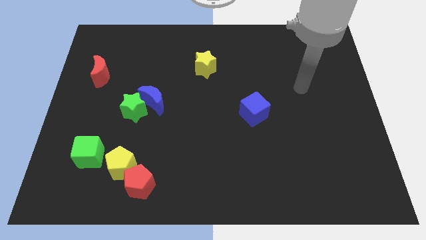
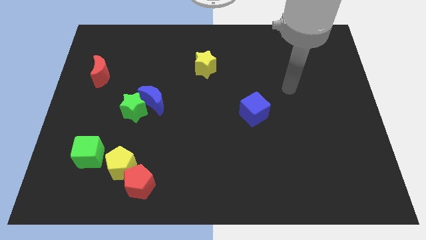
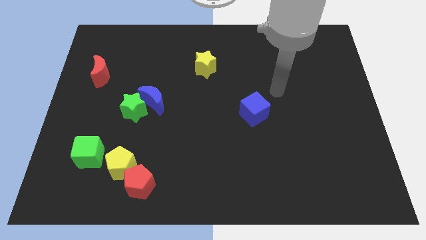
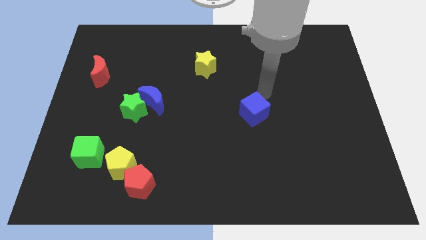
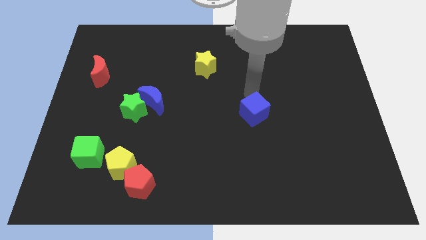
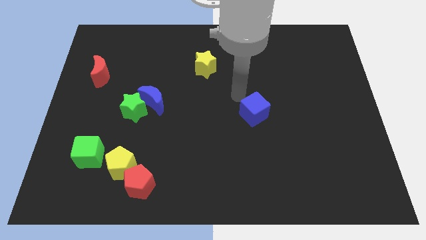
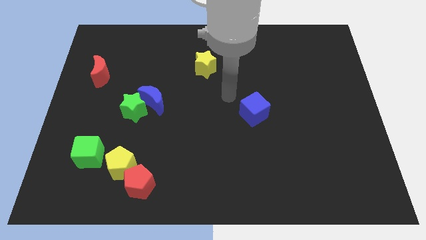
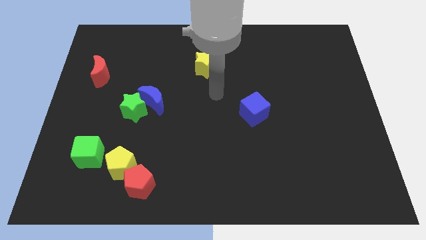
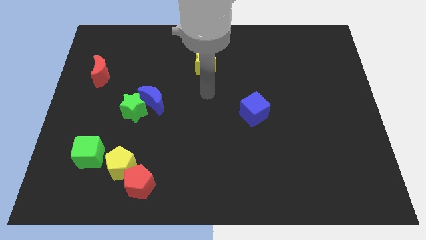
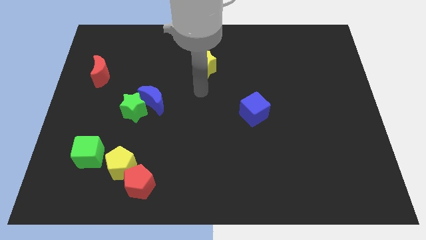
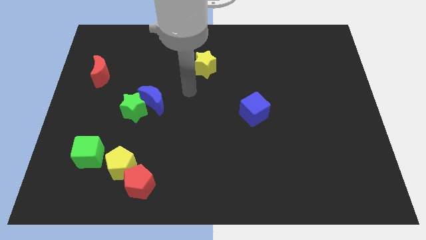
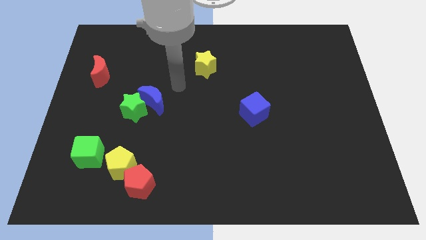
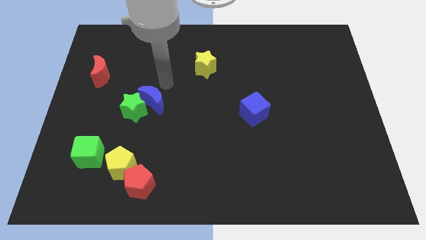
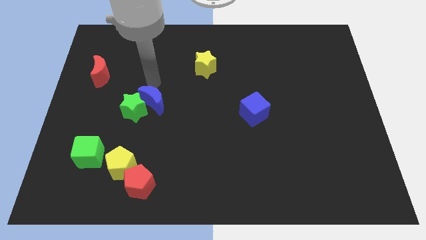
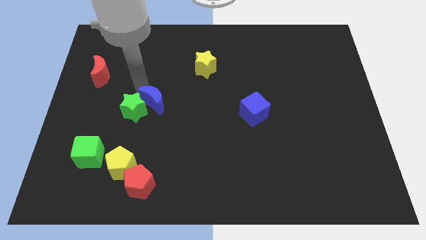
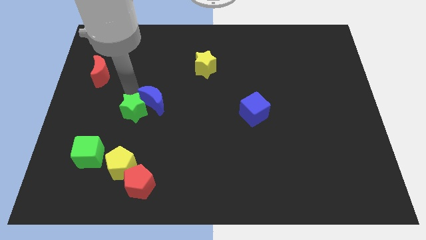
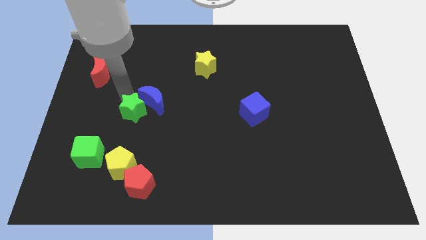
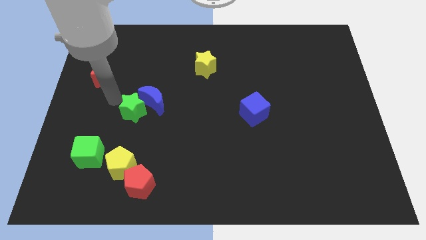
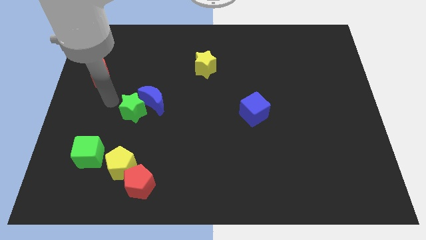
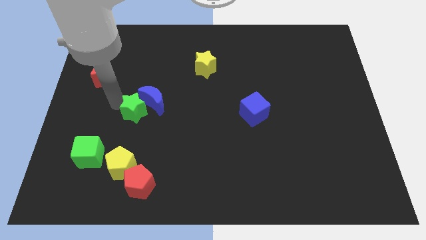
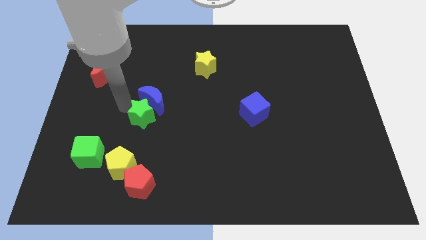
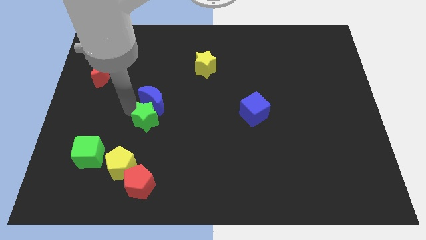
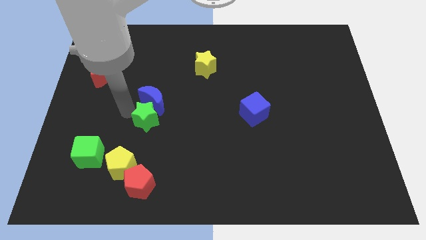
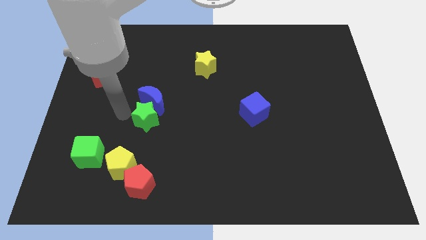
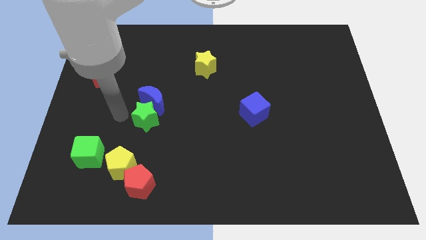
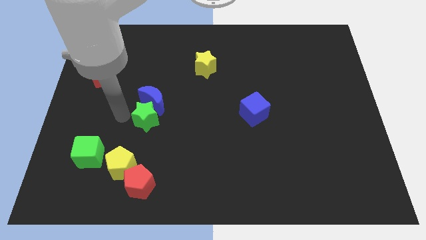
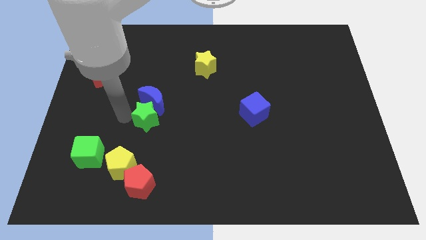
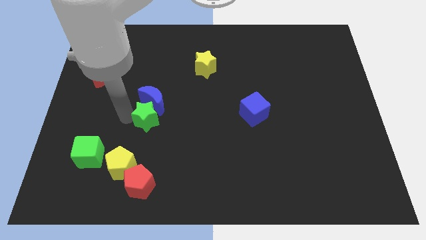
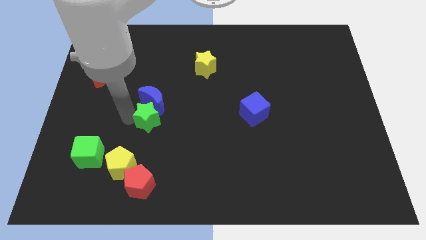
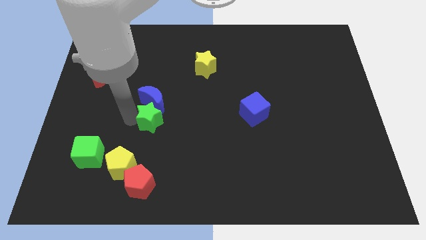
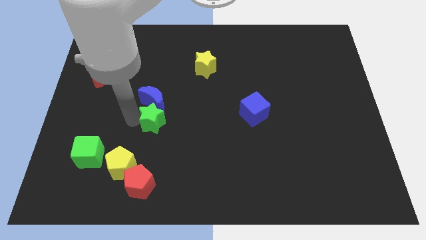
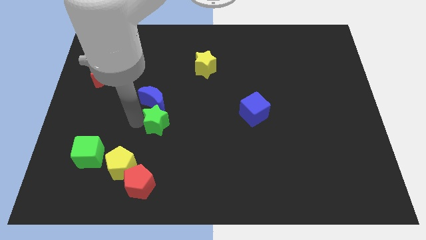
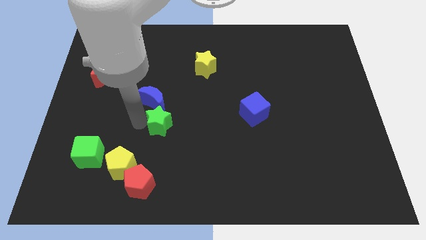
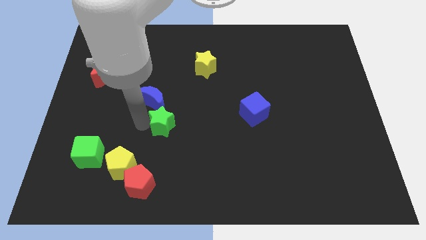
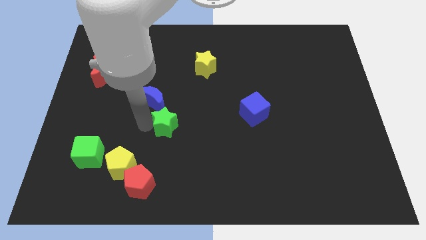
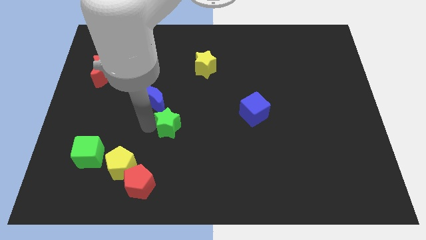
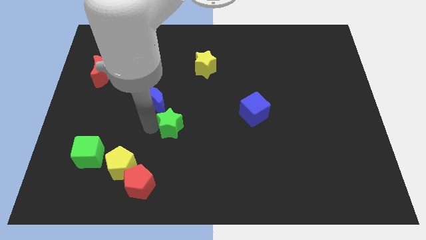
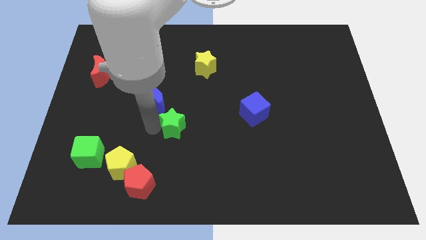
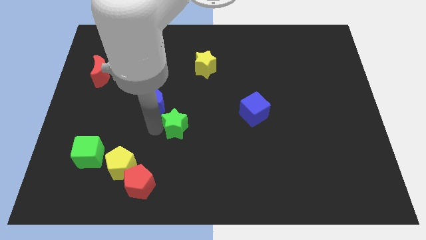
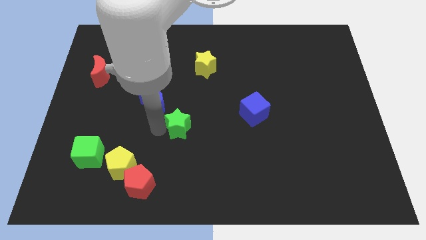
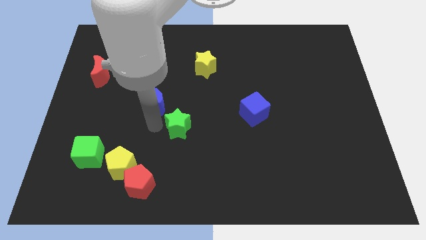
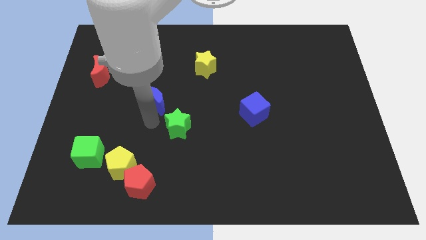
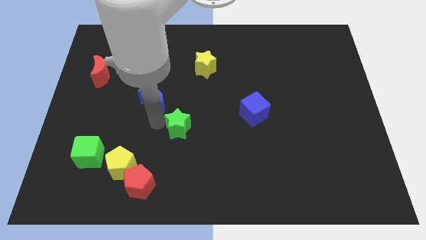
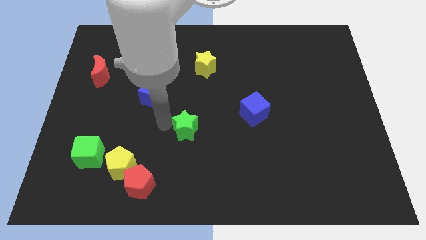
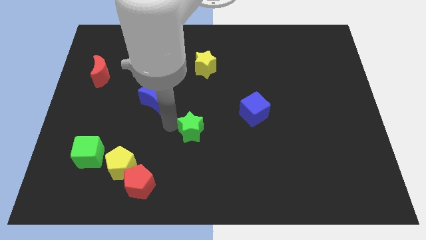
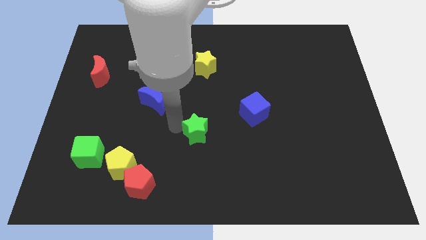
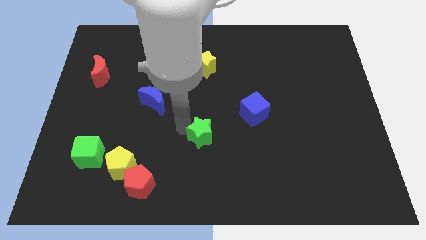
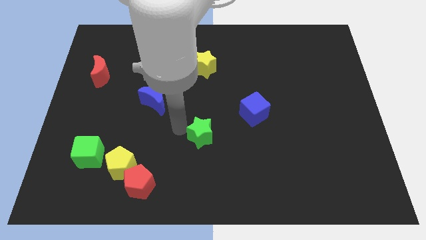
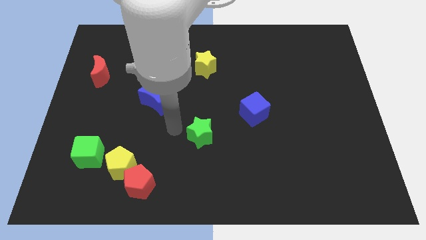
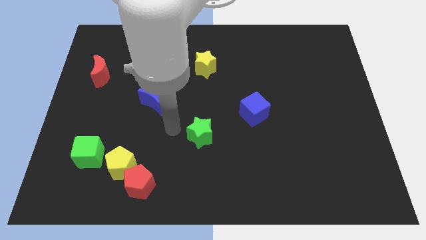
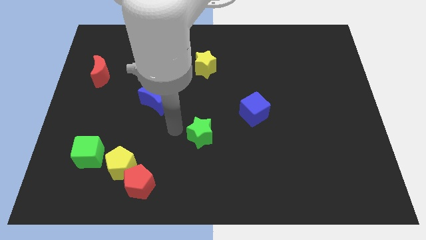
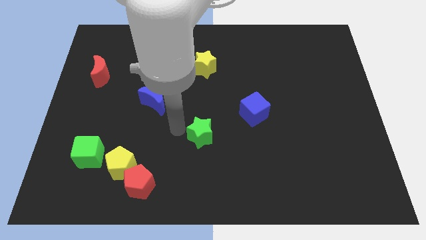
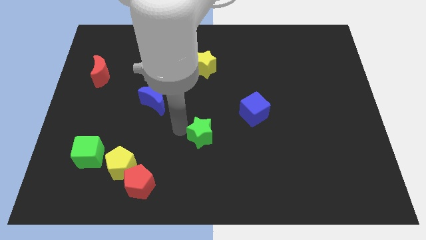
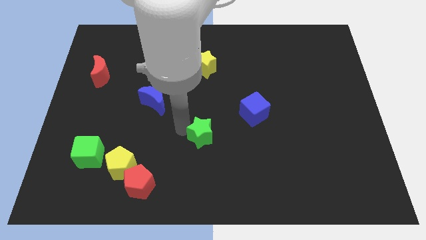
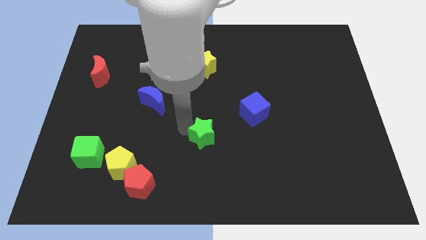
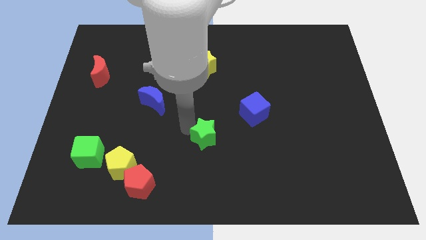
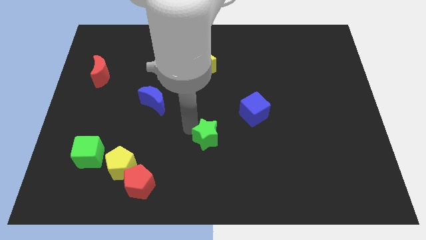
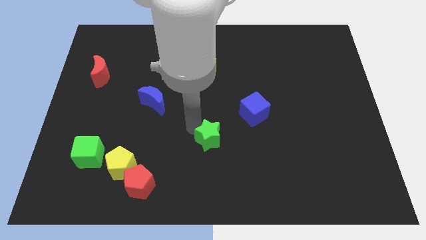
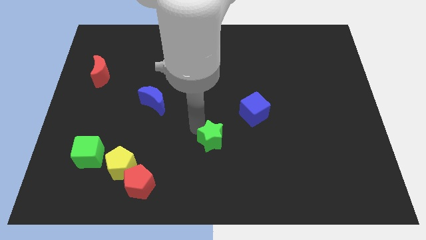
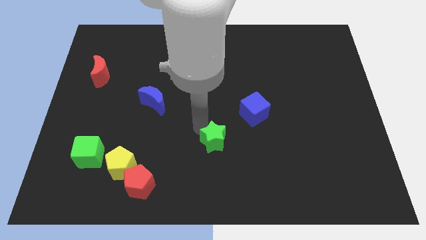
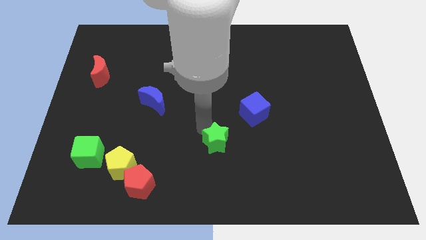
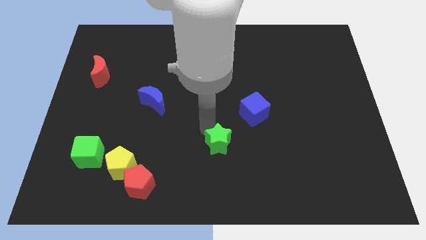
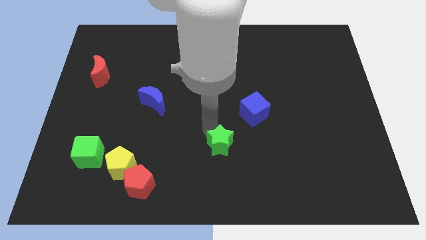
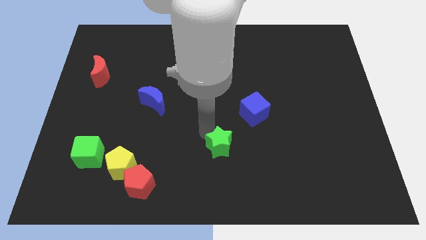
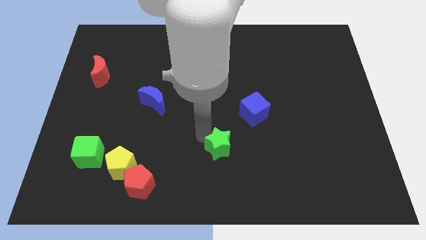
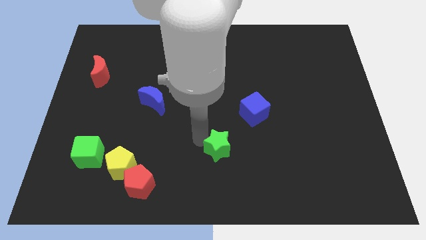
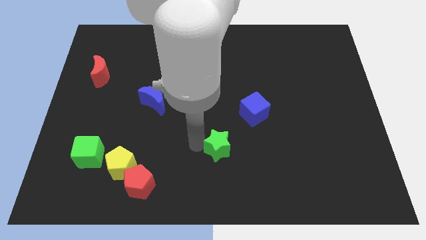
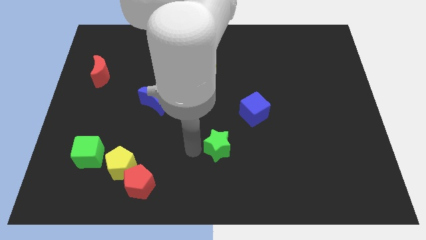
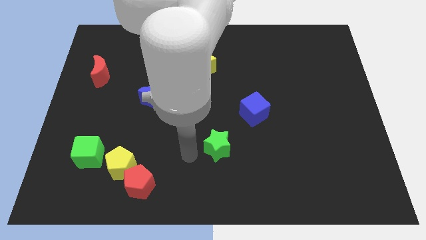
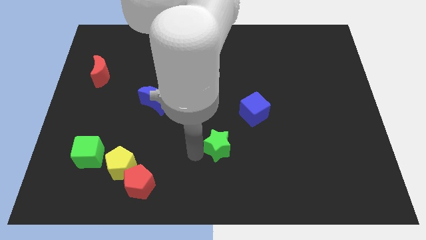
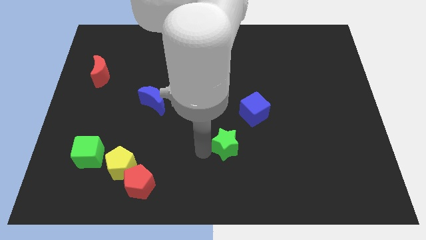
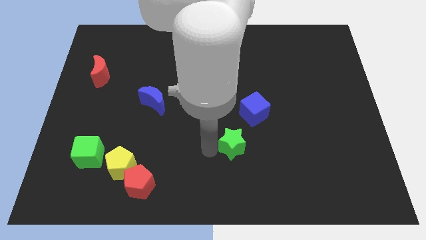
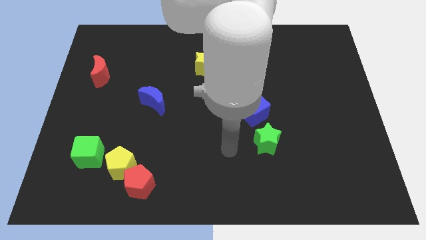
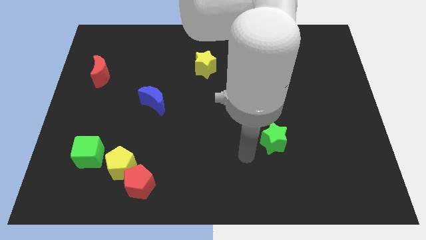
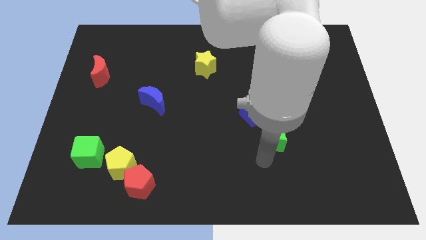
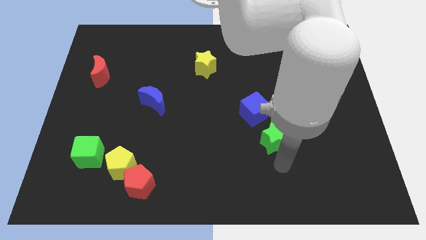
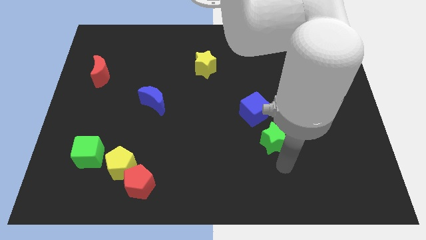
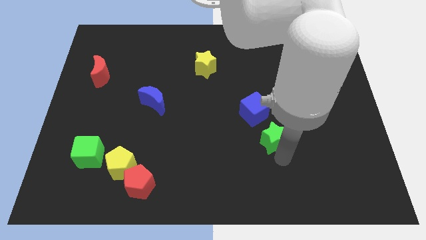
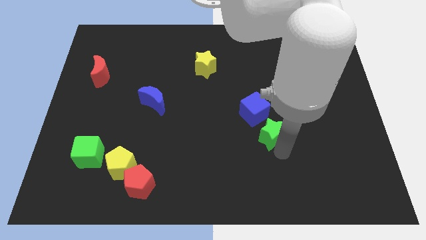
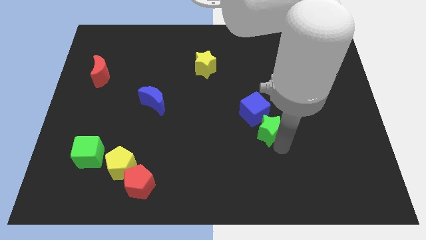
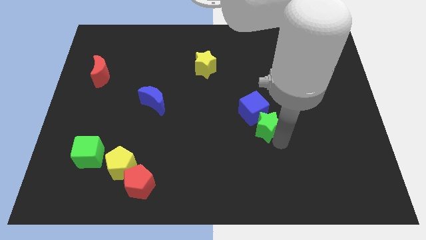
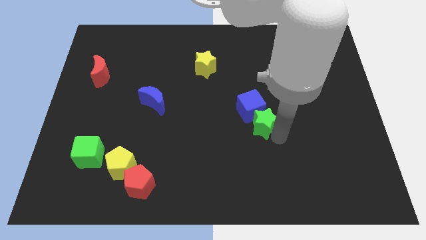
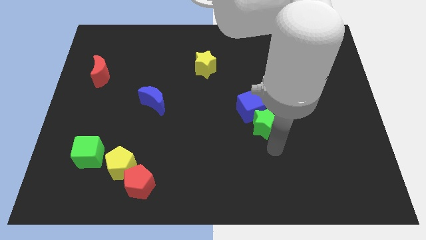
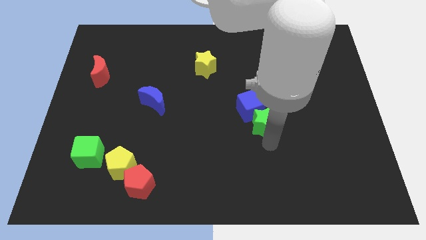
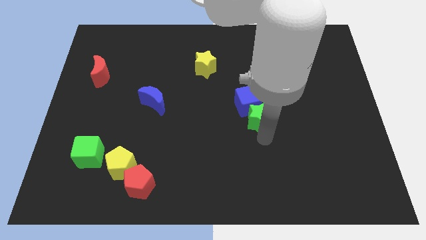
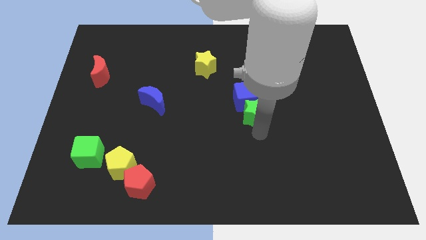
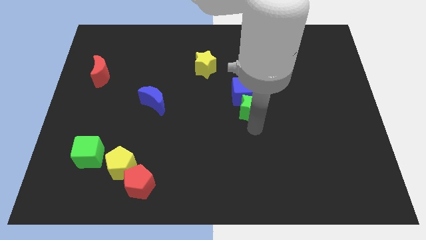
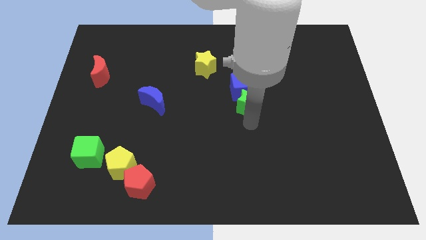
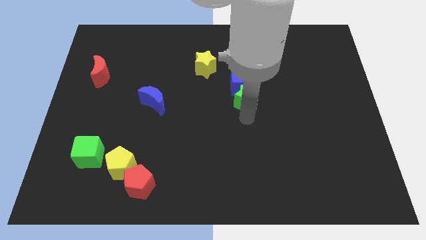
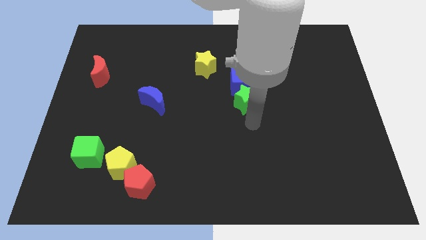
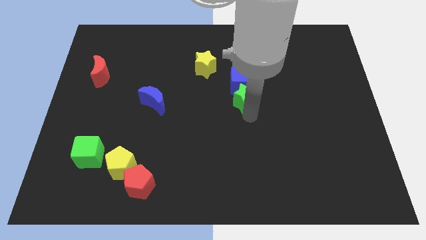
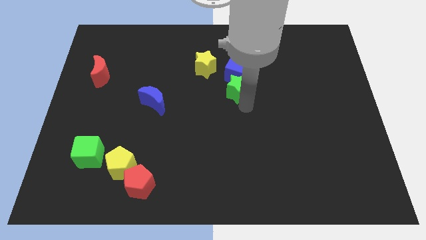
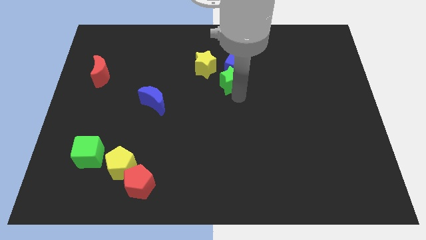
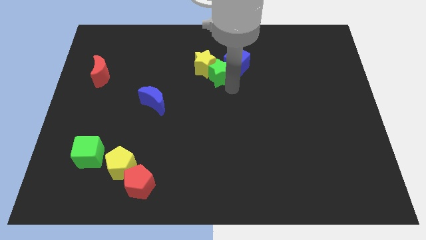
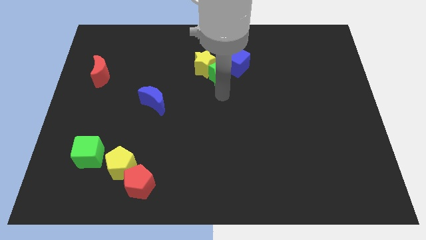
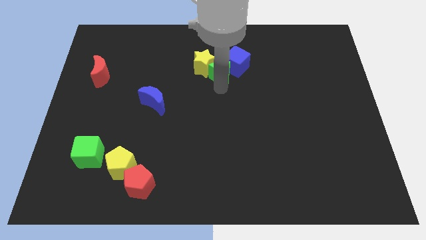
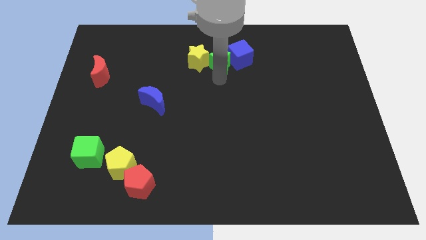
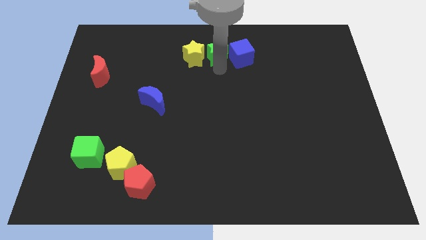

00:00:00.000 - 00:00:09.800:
put the green star to the top side
